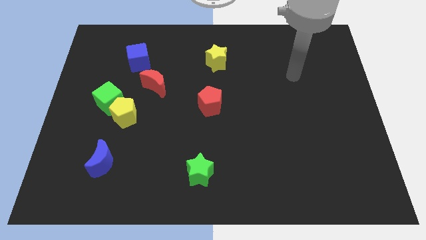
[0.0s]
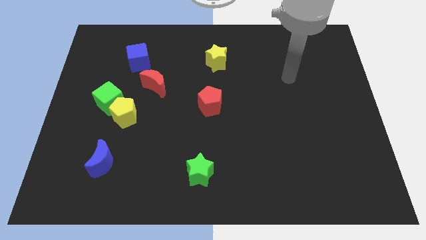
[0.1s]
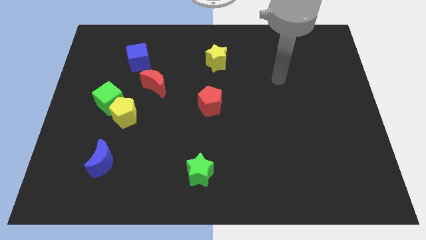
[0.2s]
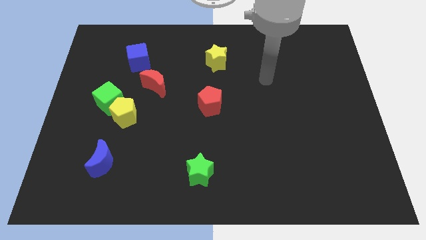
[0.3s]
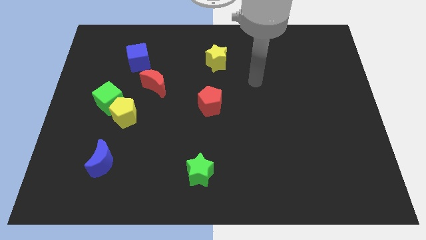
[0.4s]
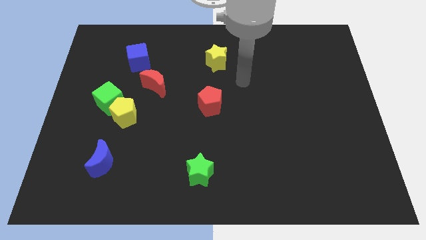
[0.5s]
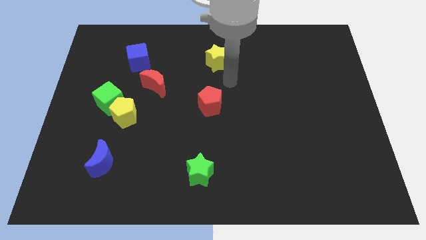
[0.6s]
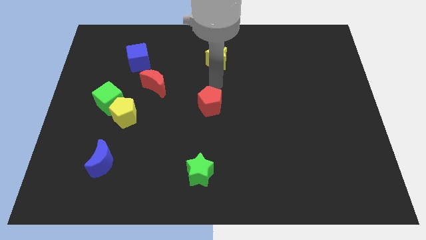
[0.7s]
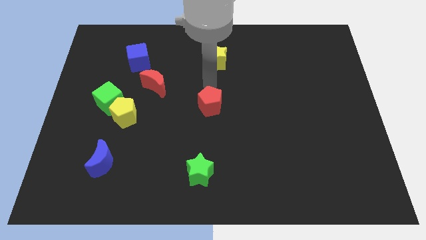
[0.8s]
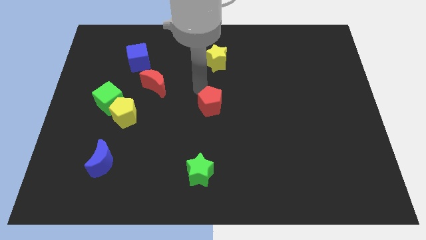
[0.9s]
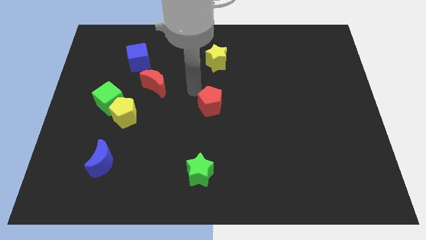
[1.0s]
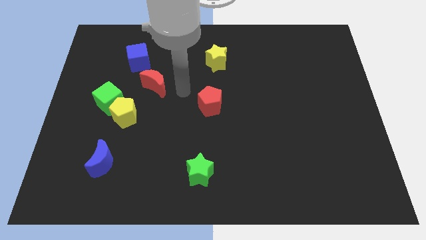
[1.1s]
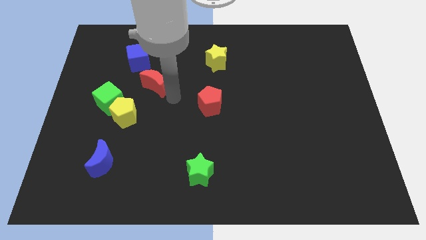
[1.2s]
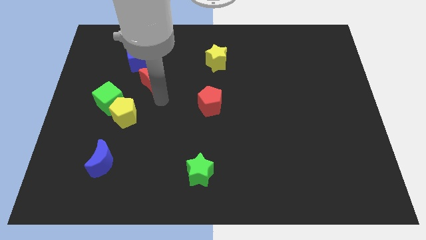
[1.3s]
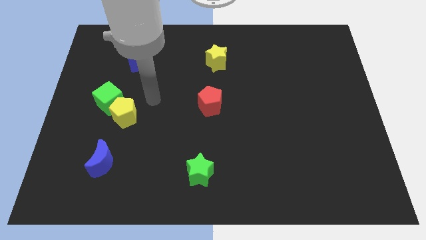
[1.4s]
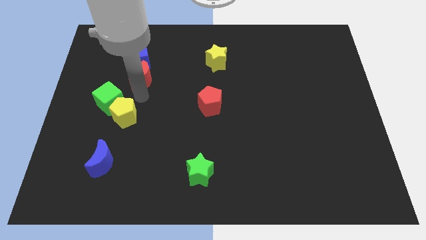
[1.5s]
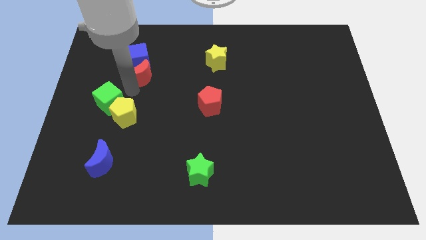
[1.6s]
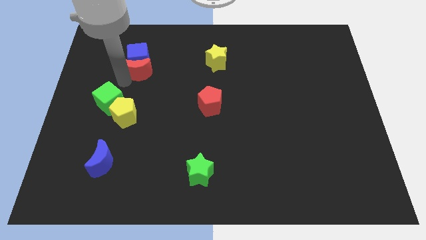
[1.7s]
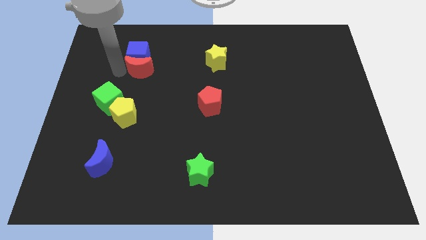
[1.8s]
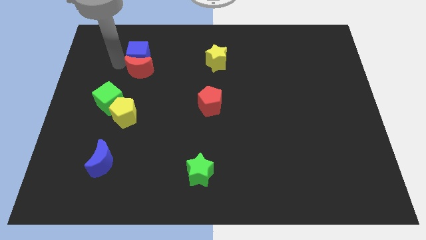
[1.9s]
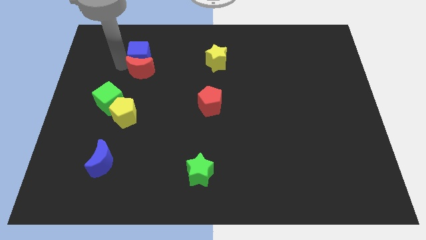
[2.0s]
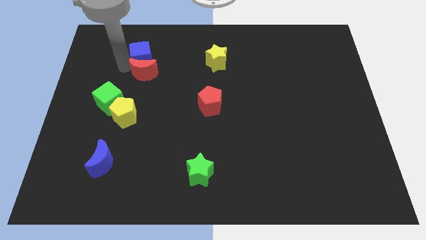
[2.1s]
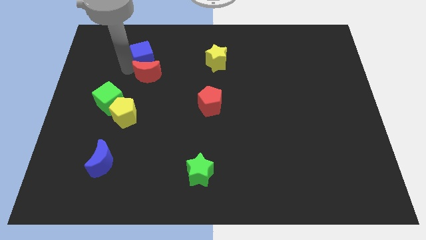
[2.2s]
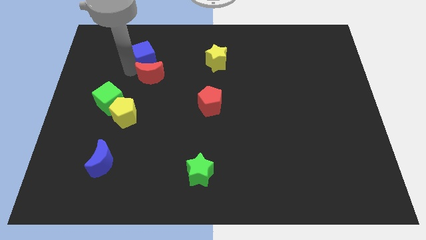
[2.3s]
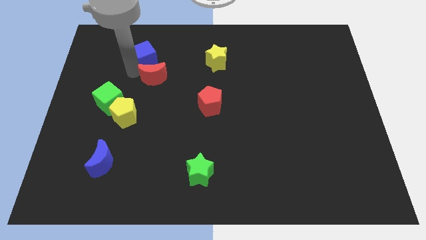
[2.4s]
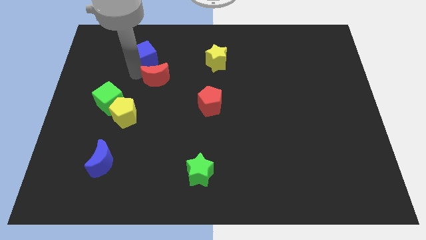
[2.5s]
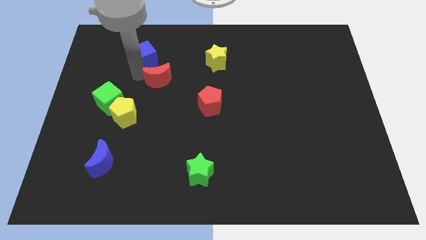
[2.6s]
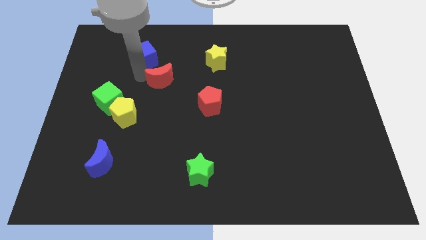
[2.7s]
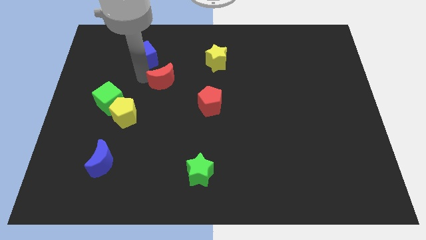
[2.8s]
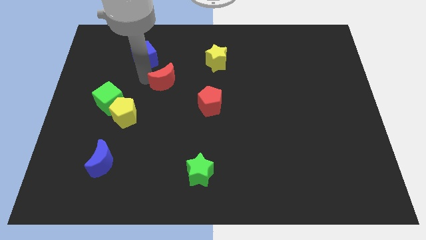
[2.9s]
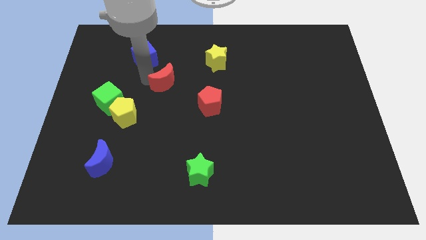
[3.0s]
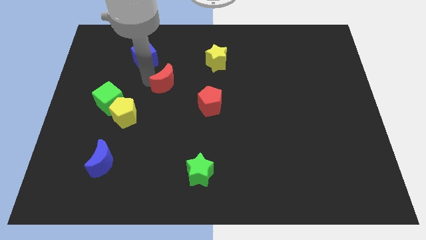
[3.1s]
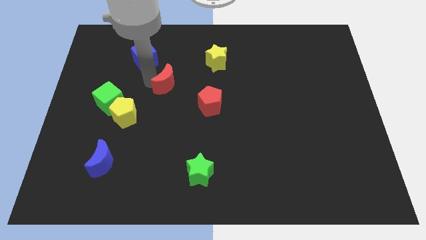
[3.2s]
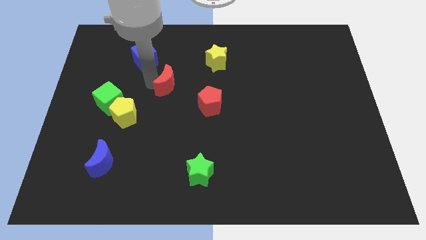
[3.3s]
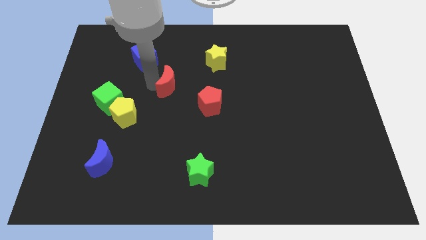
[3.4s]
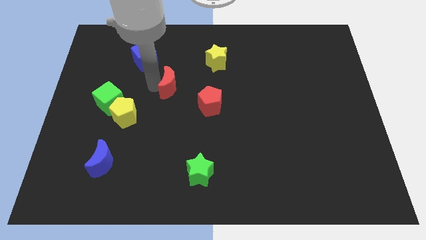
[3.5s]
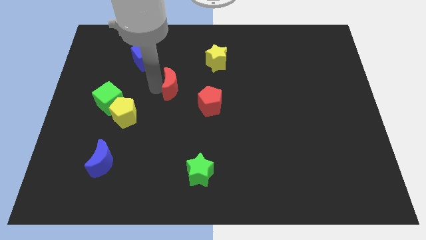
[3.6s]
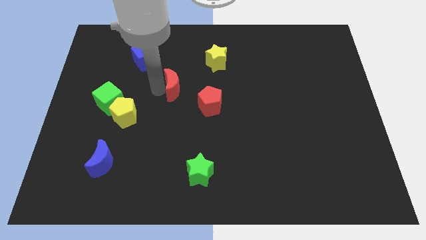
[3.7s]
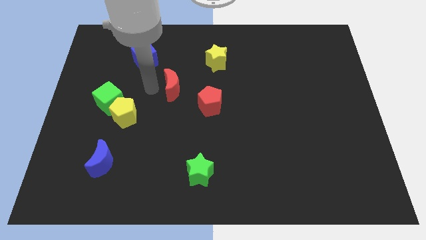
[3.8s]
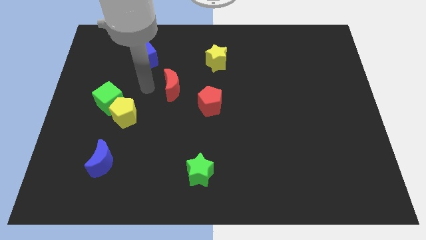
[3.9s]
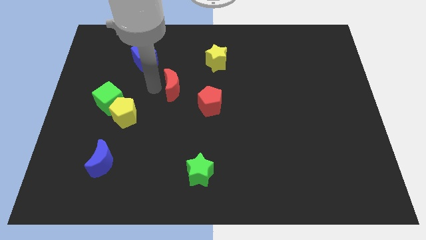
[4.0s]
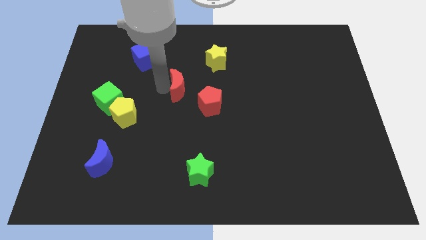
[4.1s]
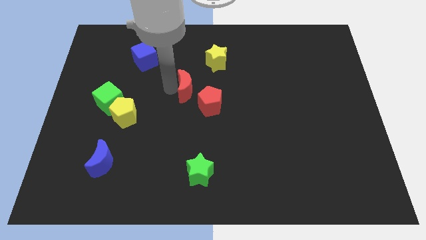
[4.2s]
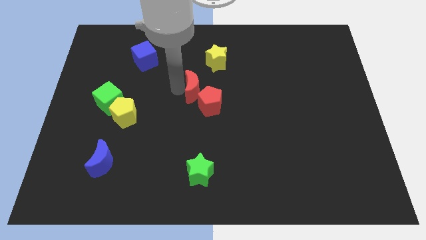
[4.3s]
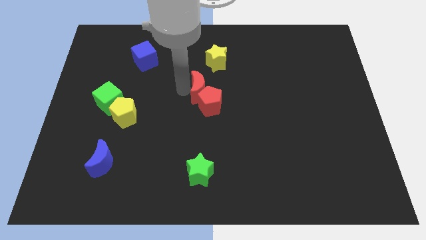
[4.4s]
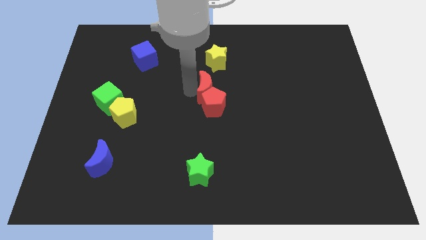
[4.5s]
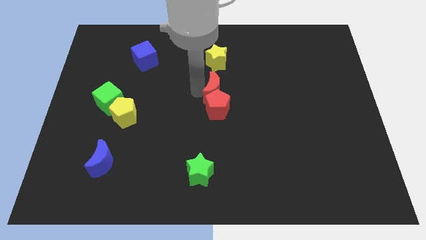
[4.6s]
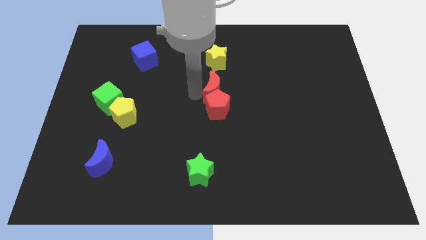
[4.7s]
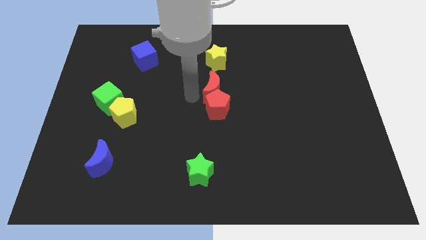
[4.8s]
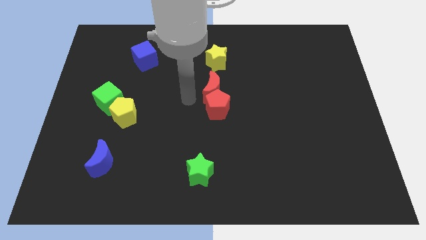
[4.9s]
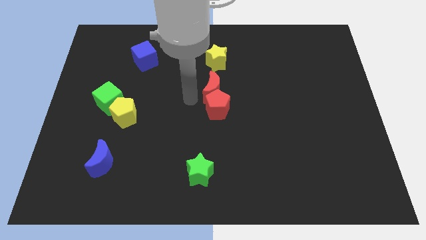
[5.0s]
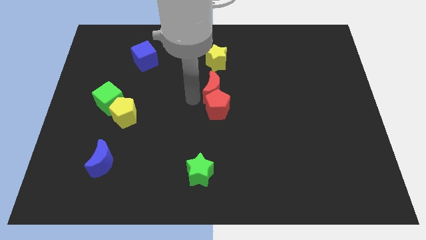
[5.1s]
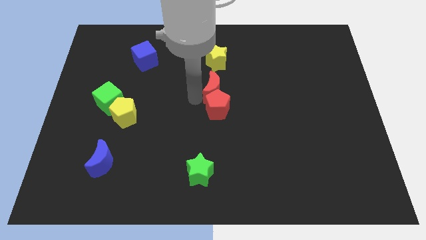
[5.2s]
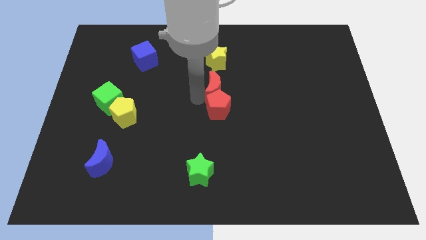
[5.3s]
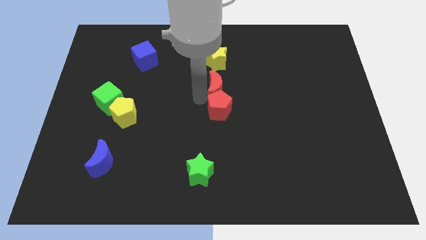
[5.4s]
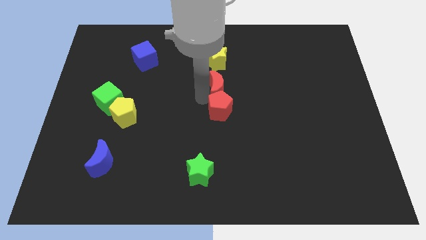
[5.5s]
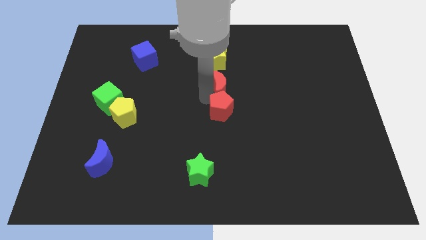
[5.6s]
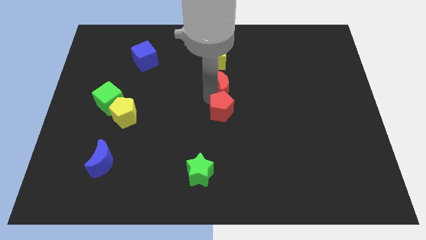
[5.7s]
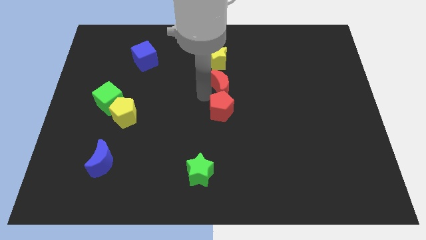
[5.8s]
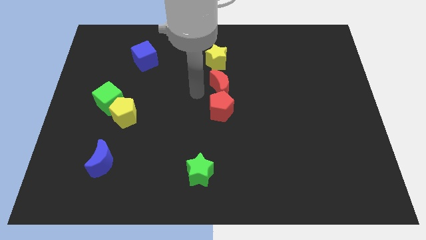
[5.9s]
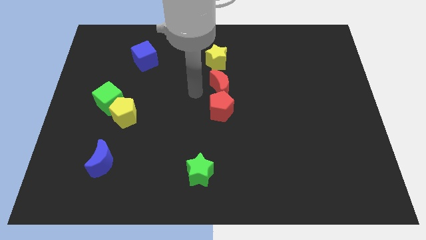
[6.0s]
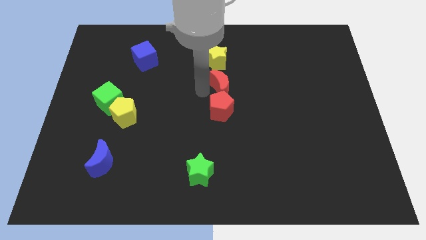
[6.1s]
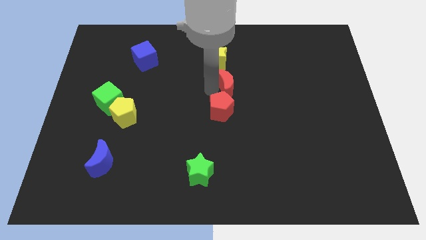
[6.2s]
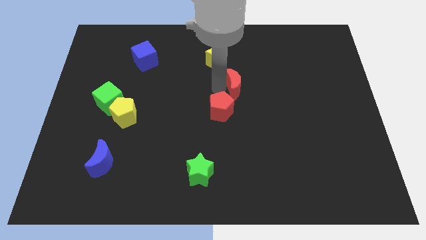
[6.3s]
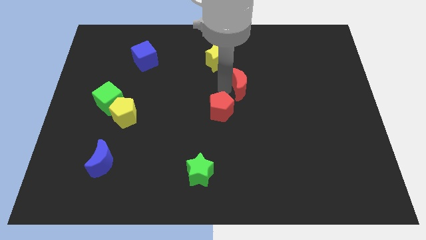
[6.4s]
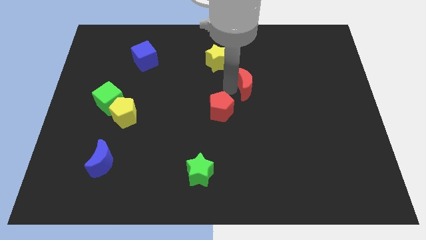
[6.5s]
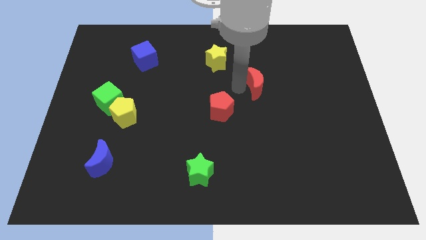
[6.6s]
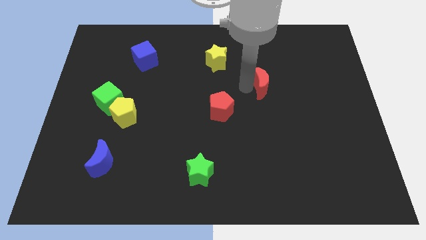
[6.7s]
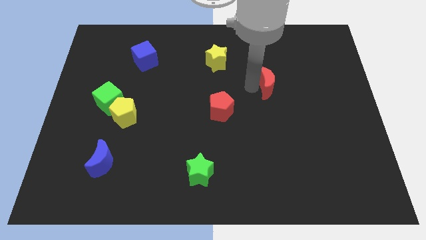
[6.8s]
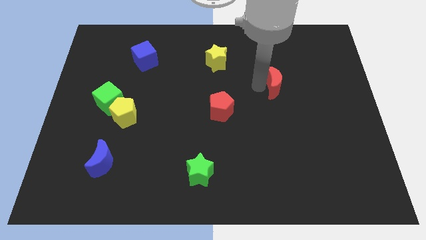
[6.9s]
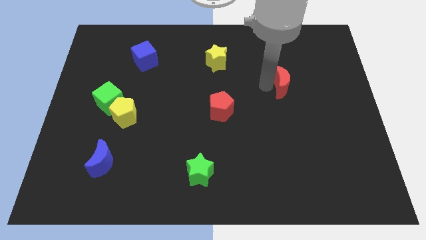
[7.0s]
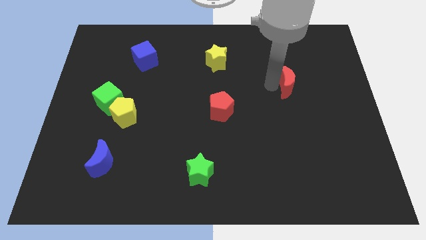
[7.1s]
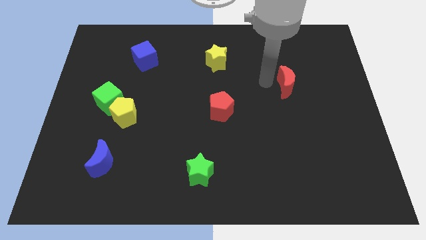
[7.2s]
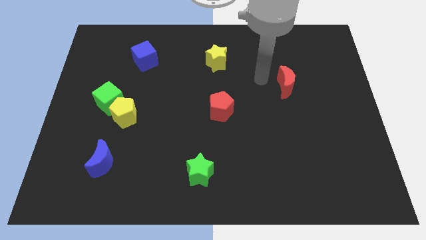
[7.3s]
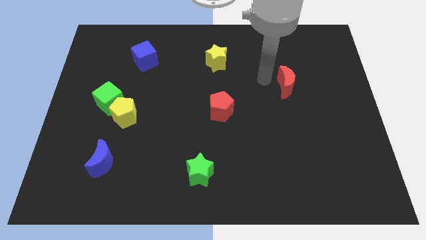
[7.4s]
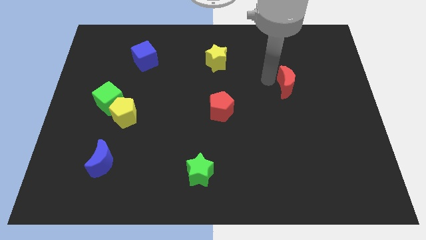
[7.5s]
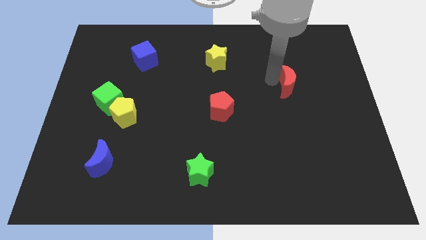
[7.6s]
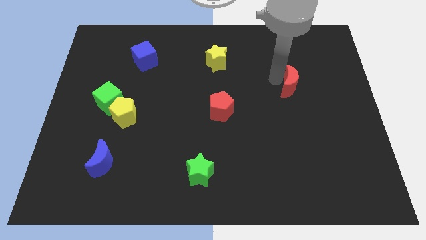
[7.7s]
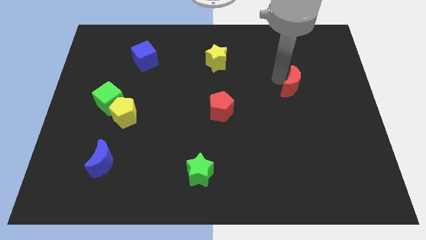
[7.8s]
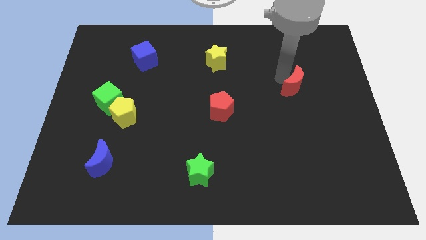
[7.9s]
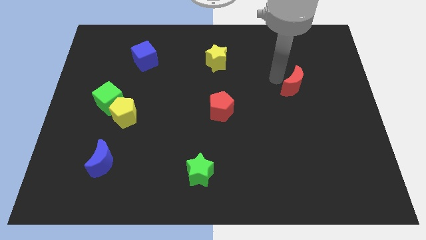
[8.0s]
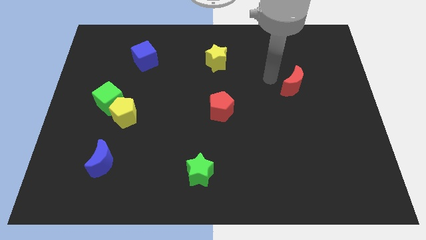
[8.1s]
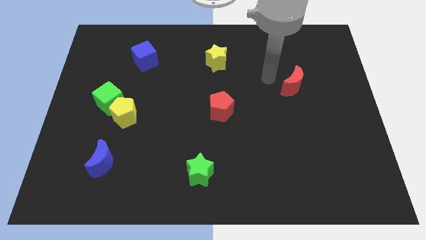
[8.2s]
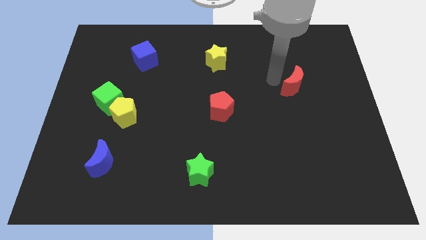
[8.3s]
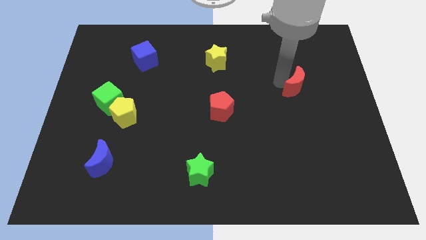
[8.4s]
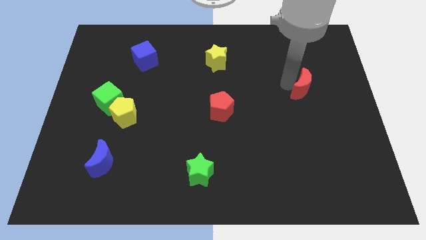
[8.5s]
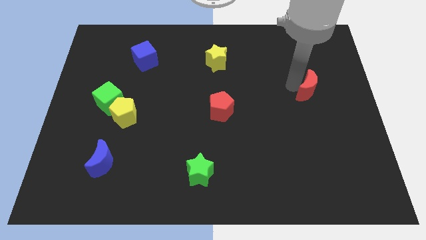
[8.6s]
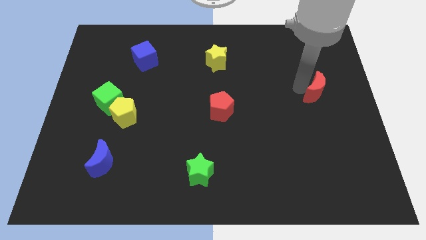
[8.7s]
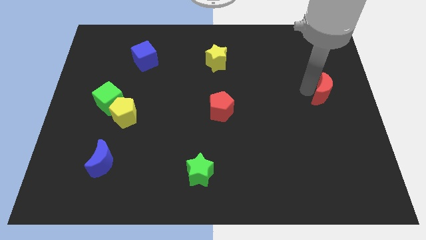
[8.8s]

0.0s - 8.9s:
move the red moon to the right side
